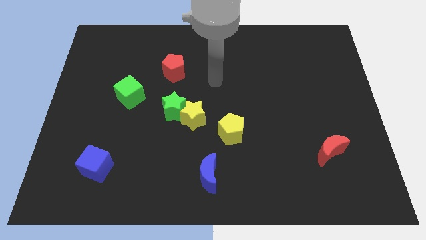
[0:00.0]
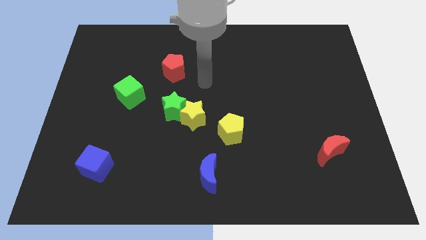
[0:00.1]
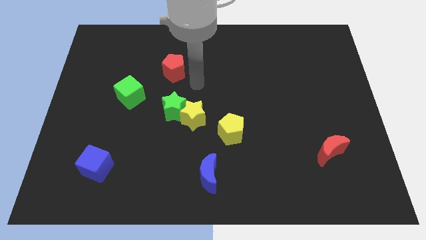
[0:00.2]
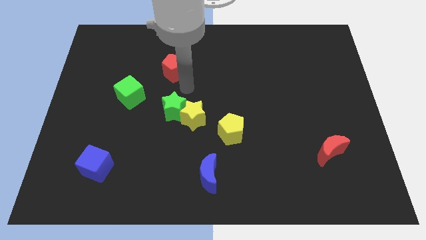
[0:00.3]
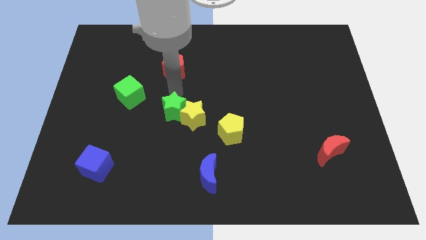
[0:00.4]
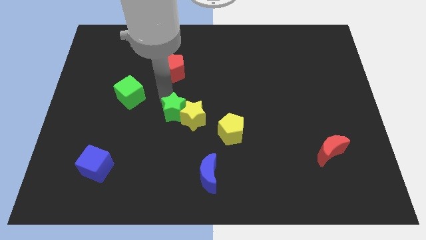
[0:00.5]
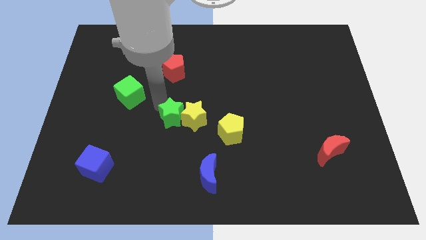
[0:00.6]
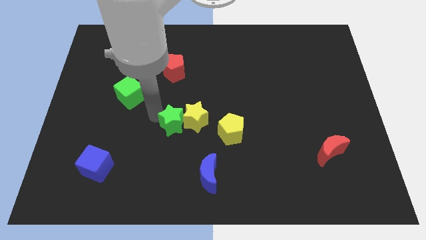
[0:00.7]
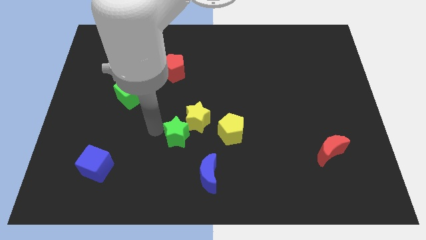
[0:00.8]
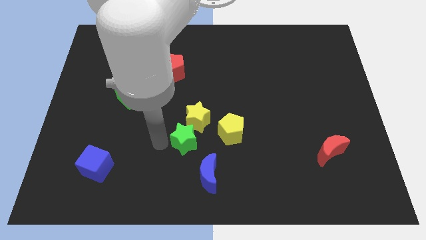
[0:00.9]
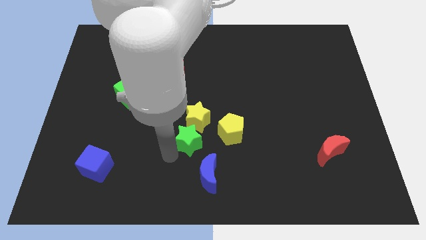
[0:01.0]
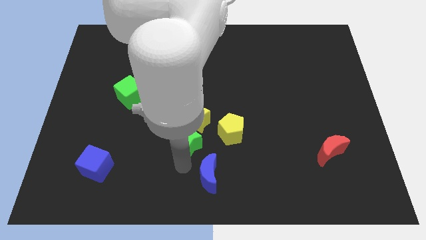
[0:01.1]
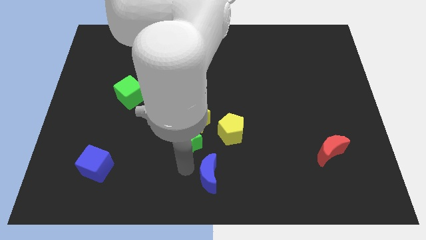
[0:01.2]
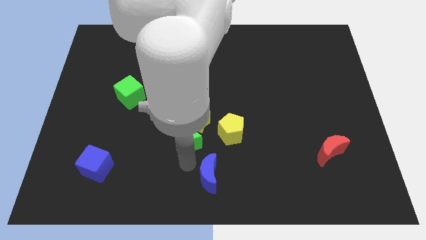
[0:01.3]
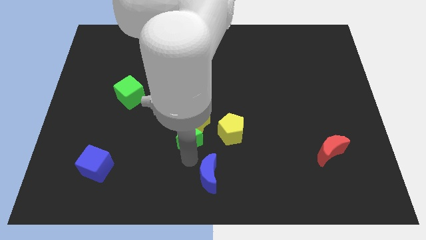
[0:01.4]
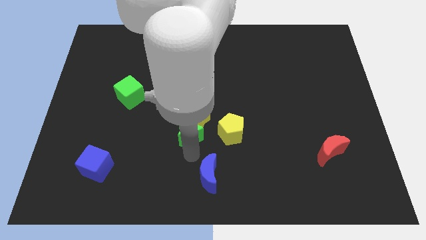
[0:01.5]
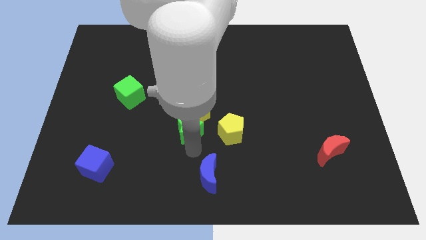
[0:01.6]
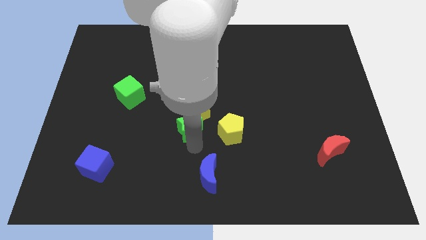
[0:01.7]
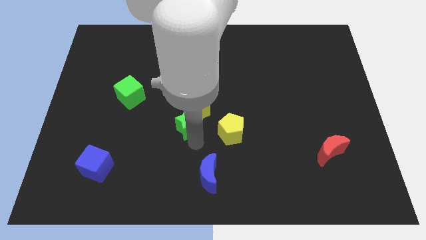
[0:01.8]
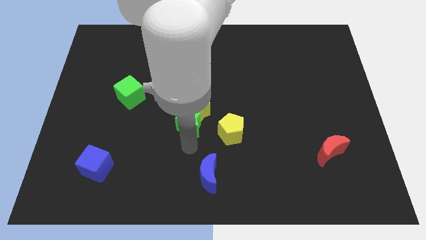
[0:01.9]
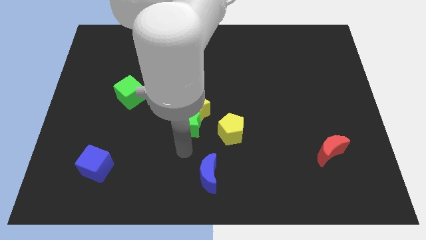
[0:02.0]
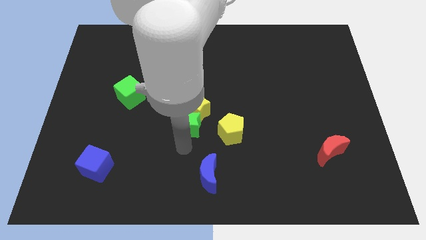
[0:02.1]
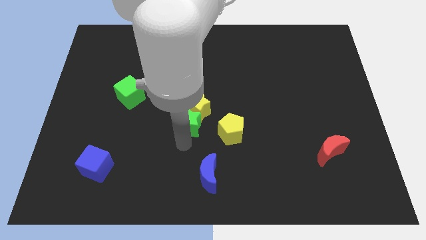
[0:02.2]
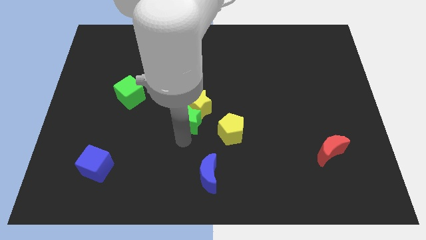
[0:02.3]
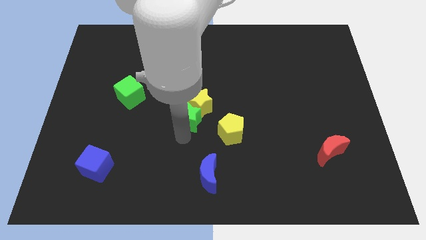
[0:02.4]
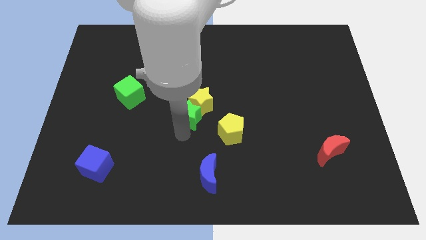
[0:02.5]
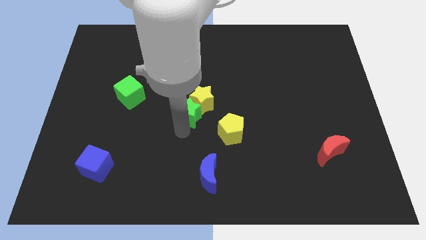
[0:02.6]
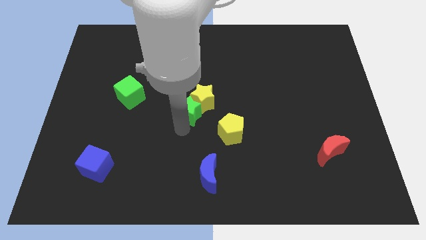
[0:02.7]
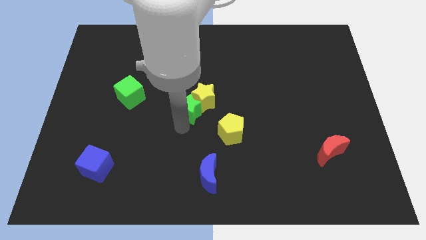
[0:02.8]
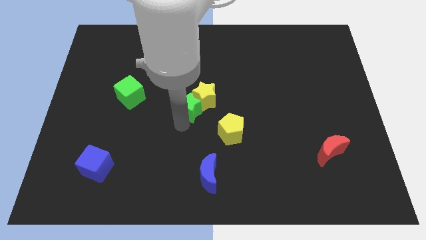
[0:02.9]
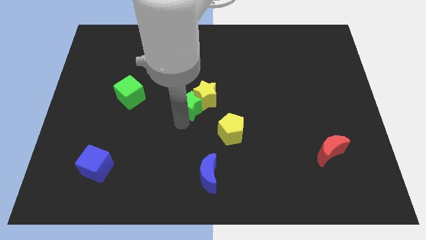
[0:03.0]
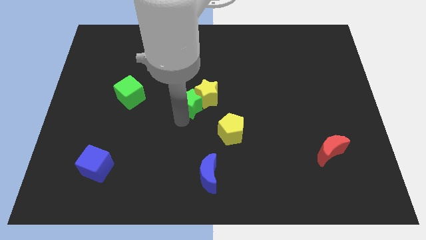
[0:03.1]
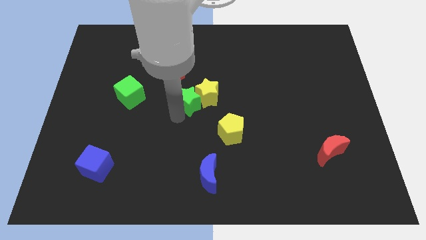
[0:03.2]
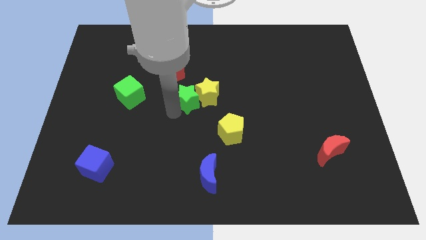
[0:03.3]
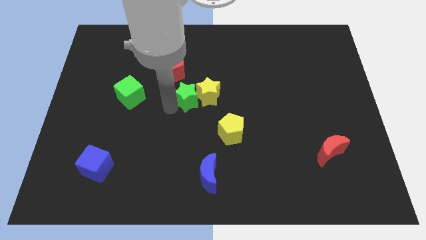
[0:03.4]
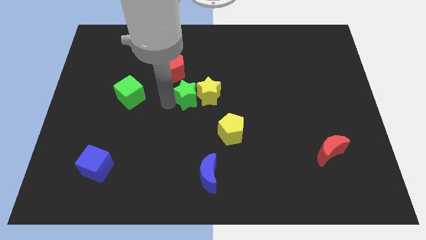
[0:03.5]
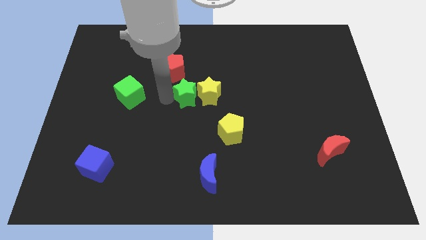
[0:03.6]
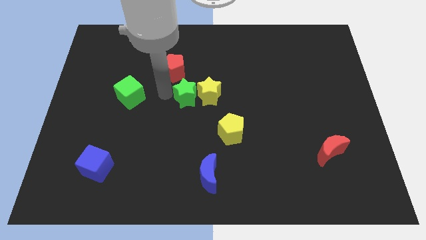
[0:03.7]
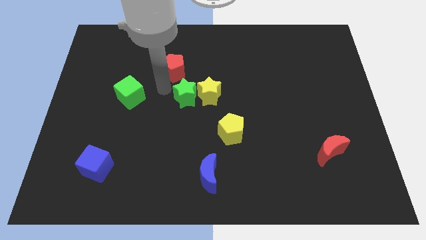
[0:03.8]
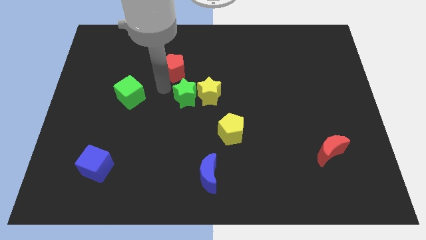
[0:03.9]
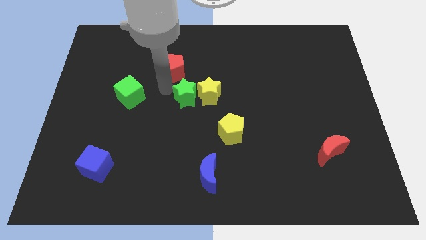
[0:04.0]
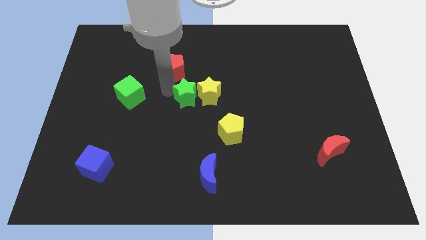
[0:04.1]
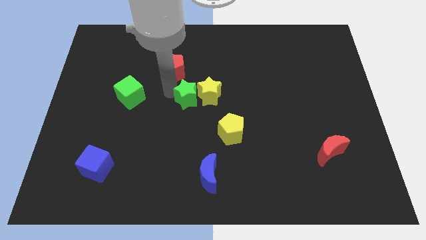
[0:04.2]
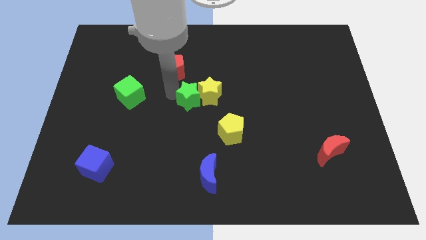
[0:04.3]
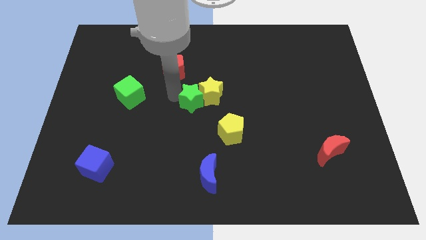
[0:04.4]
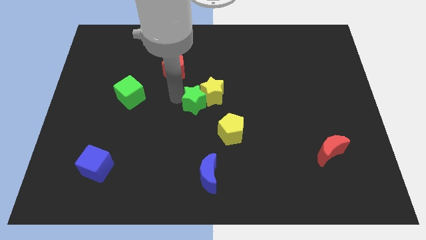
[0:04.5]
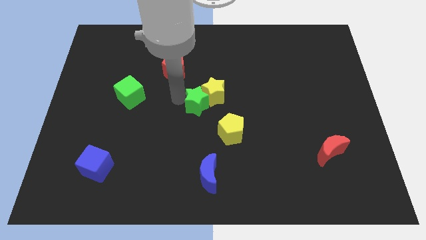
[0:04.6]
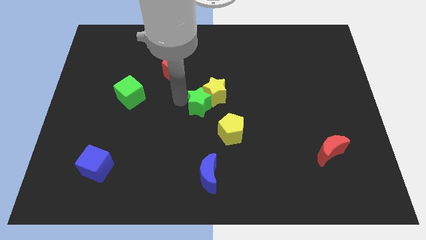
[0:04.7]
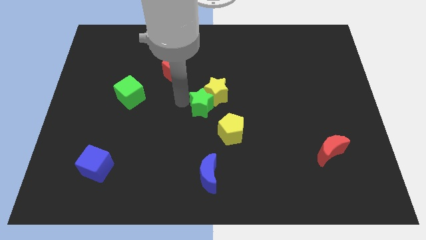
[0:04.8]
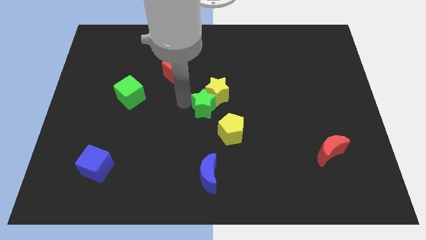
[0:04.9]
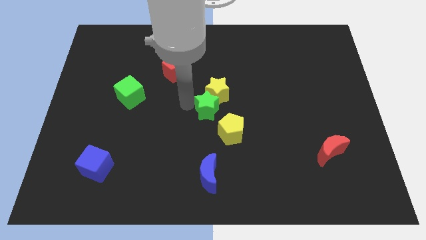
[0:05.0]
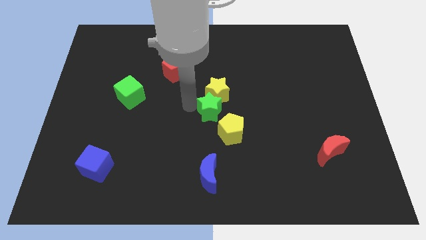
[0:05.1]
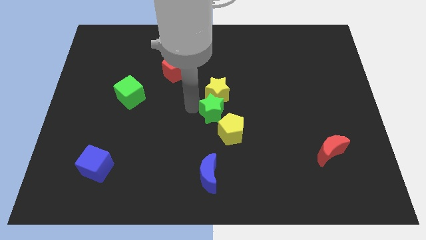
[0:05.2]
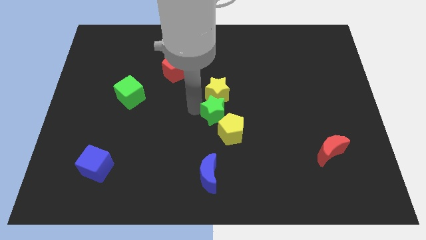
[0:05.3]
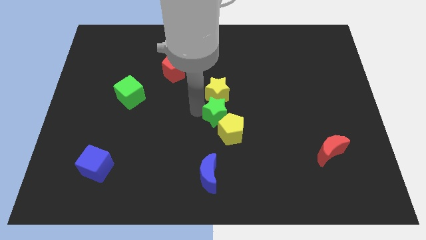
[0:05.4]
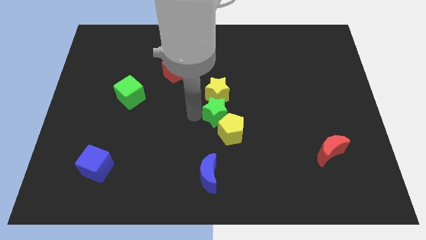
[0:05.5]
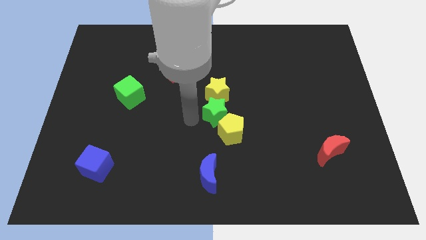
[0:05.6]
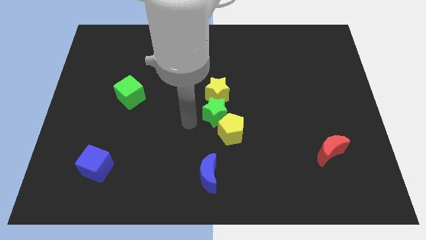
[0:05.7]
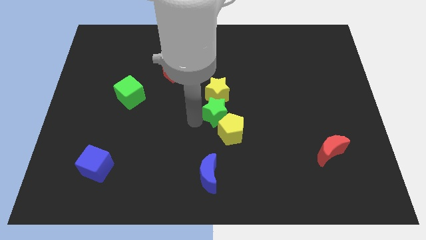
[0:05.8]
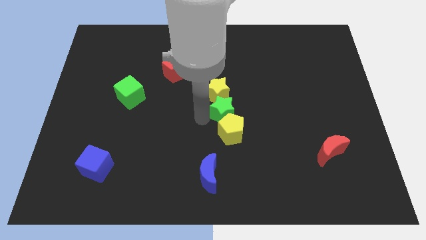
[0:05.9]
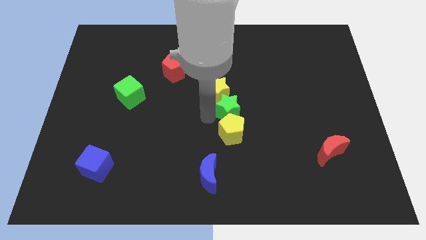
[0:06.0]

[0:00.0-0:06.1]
put the green star to the top right of the yellow pentagon

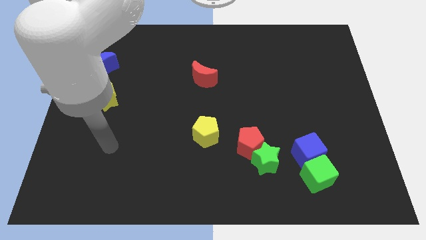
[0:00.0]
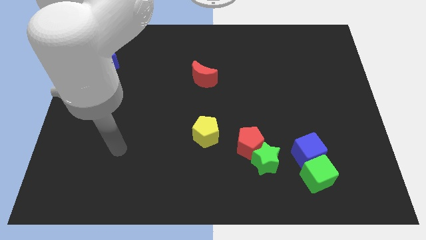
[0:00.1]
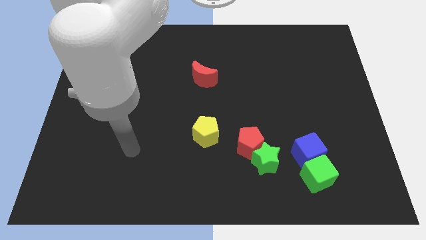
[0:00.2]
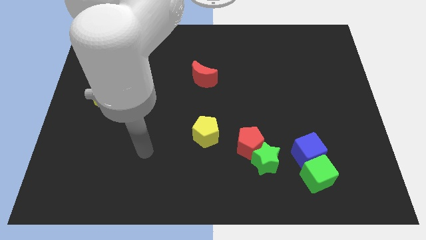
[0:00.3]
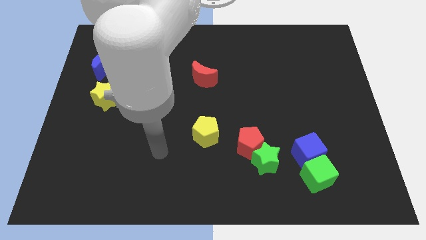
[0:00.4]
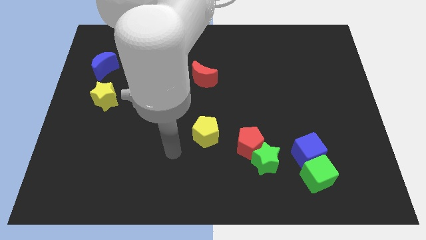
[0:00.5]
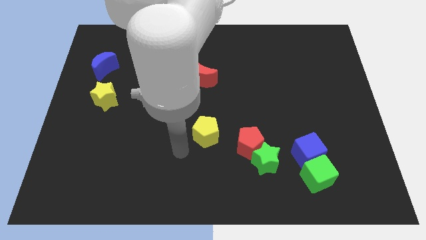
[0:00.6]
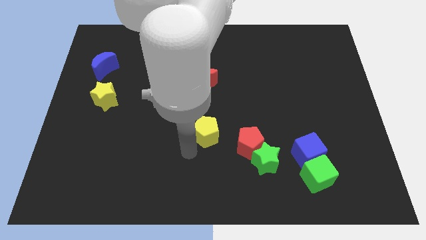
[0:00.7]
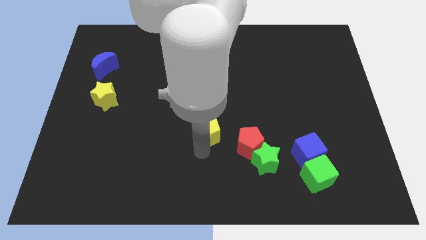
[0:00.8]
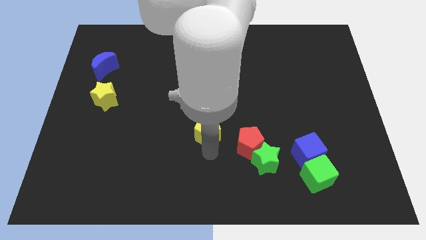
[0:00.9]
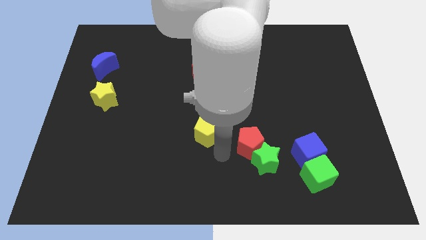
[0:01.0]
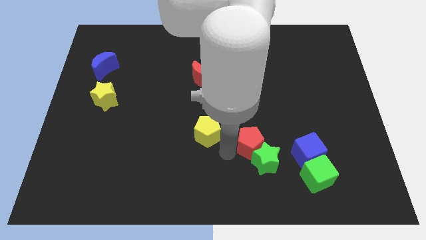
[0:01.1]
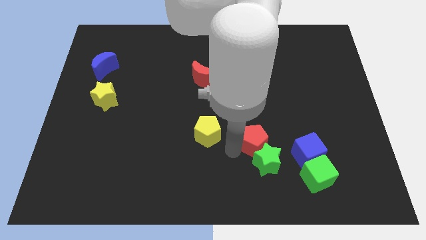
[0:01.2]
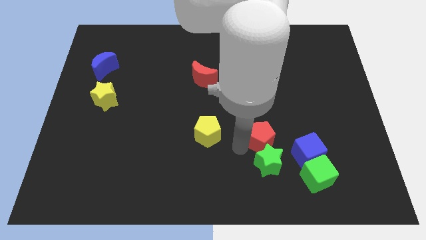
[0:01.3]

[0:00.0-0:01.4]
move the red pentagon diagonally up and to the left of the blue cube
